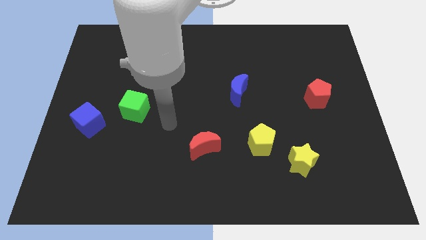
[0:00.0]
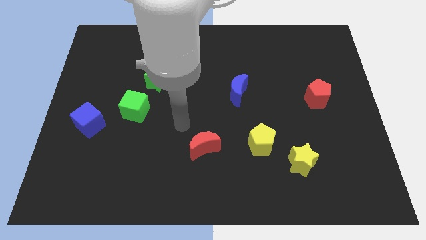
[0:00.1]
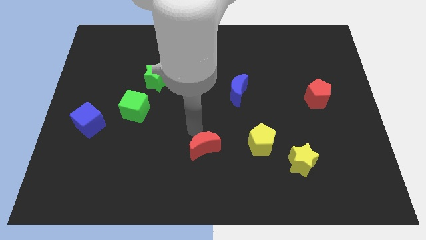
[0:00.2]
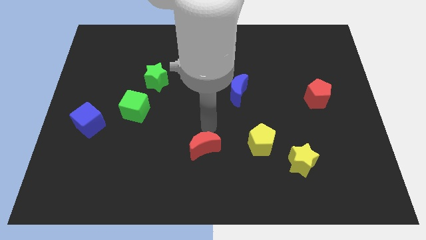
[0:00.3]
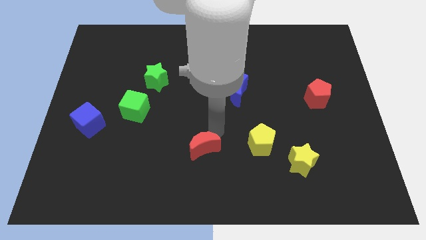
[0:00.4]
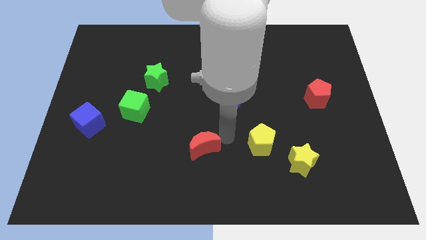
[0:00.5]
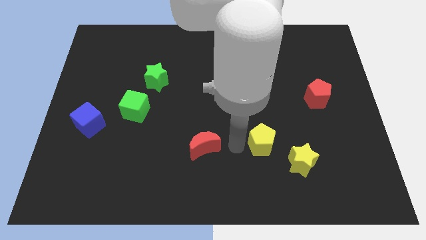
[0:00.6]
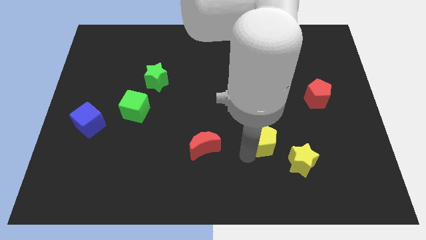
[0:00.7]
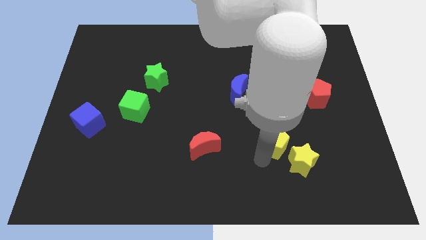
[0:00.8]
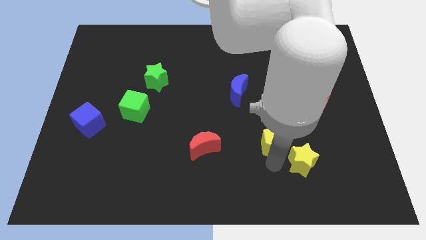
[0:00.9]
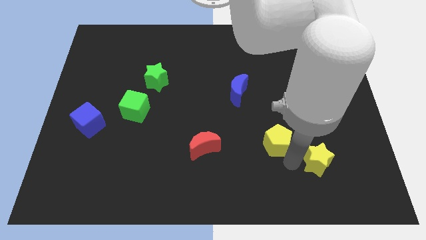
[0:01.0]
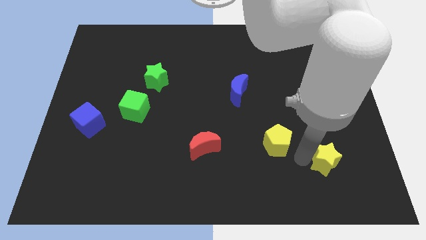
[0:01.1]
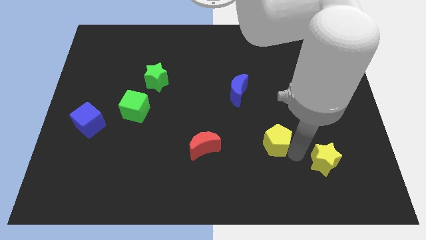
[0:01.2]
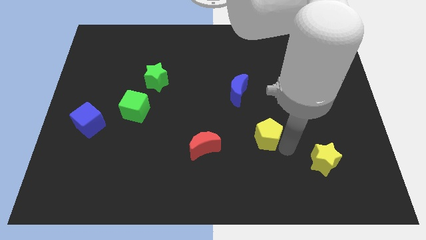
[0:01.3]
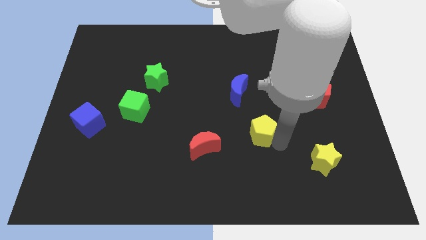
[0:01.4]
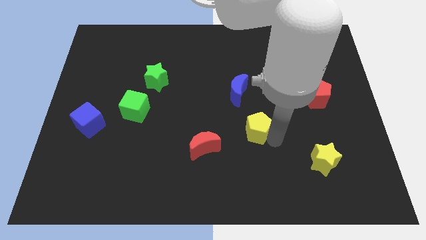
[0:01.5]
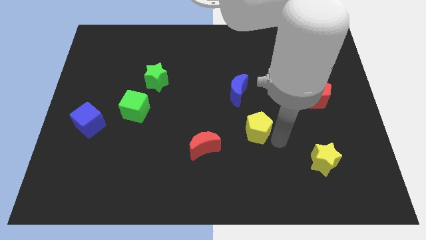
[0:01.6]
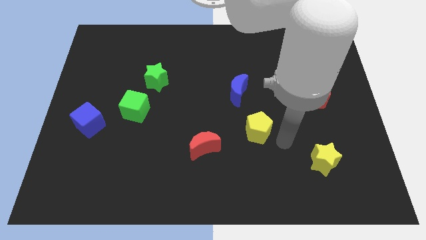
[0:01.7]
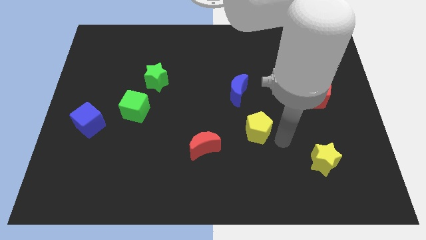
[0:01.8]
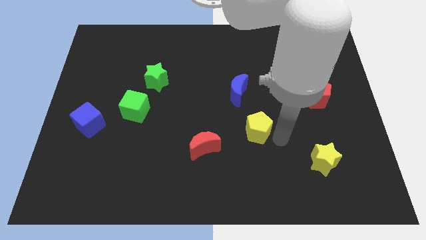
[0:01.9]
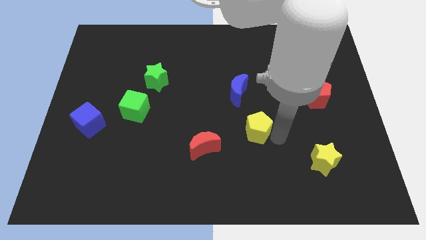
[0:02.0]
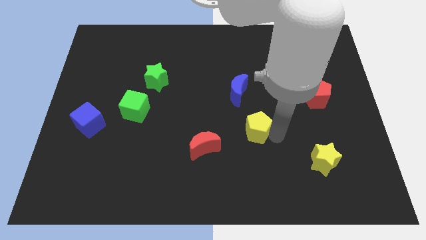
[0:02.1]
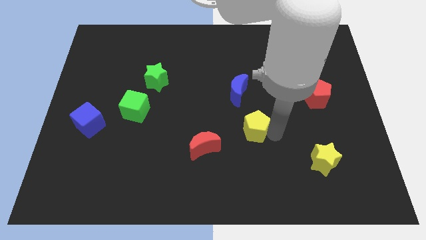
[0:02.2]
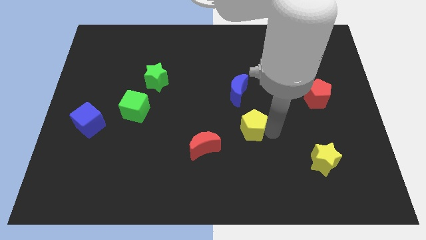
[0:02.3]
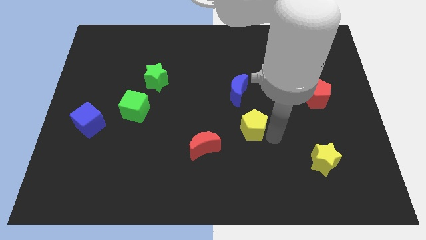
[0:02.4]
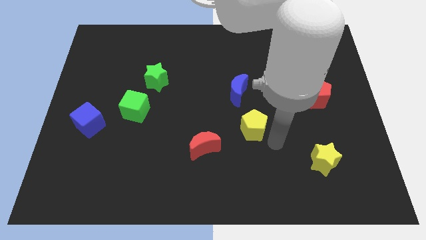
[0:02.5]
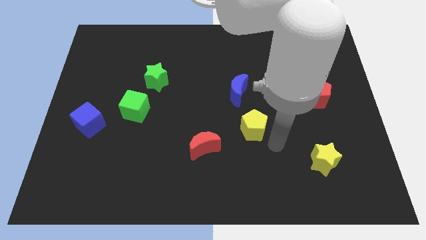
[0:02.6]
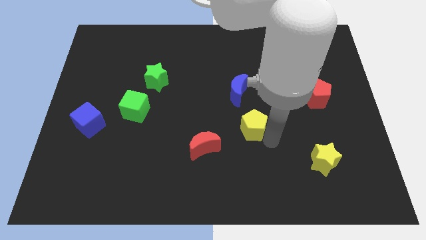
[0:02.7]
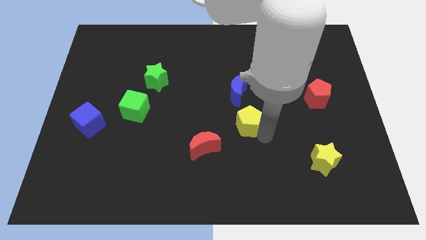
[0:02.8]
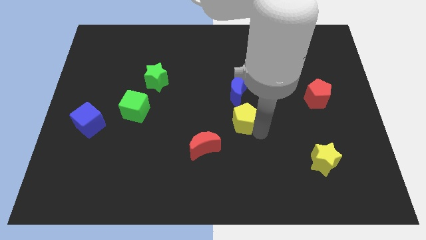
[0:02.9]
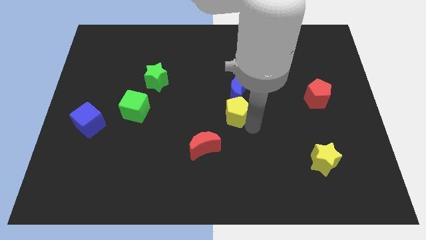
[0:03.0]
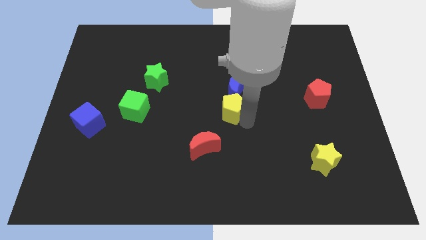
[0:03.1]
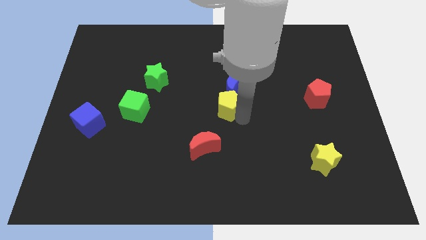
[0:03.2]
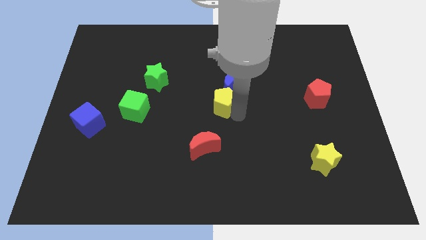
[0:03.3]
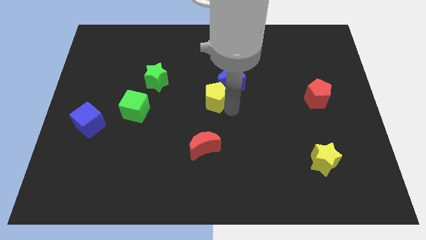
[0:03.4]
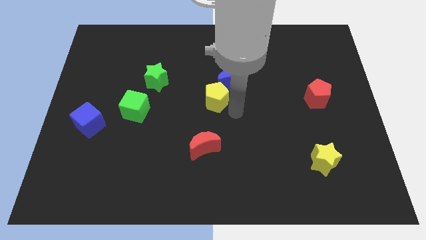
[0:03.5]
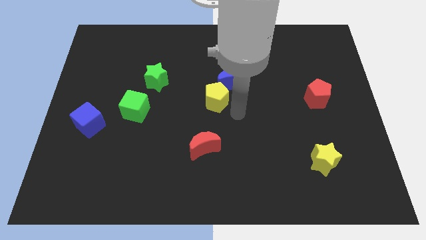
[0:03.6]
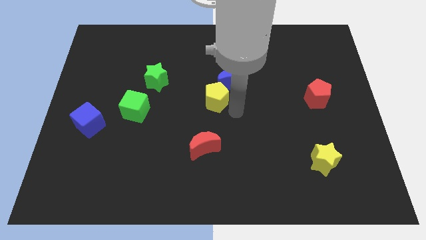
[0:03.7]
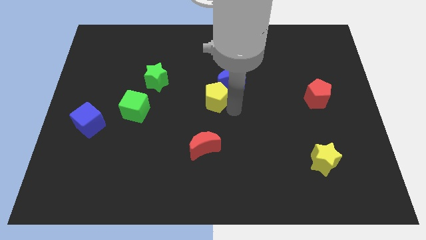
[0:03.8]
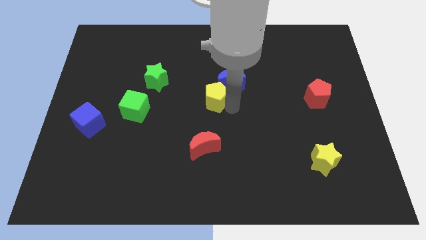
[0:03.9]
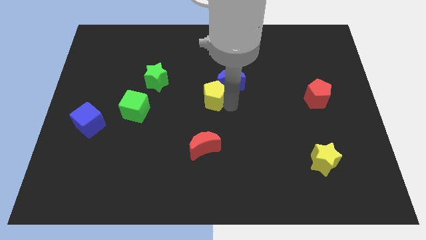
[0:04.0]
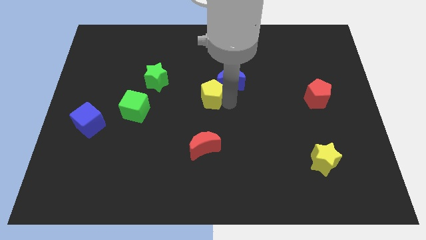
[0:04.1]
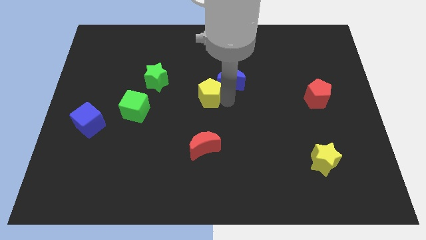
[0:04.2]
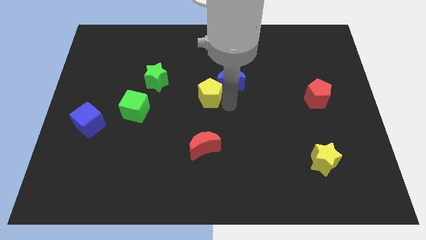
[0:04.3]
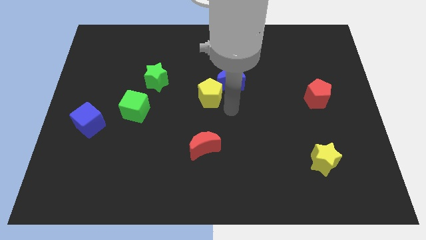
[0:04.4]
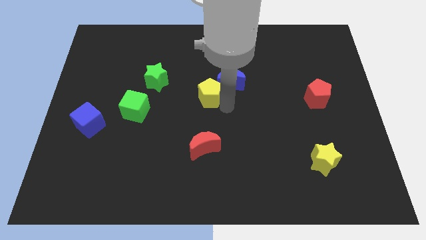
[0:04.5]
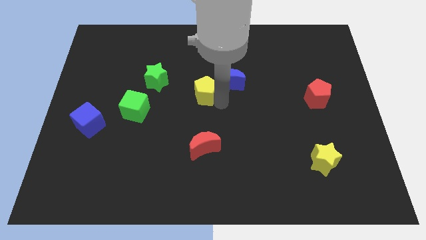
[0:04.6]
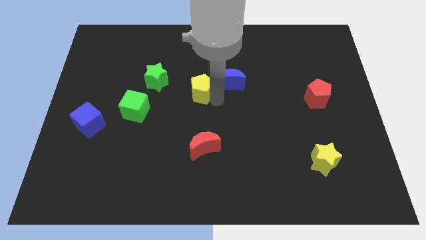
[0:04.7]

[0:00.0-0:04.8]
push the yellow pentagon up and to the left diagonally

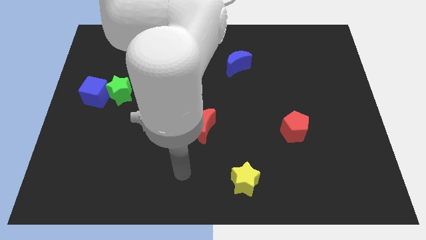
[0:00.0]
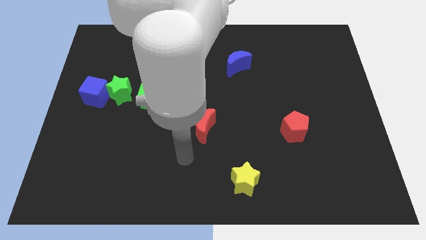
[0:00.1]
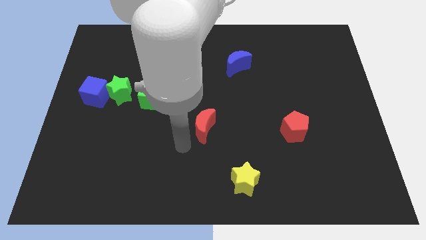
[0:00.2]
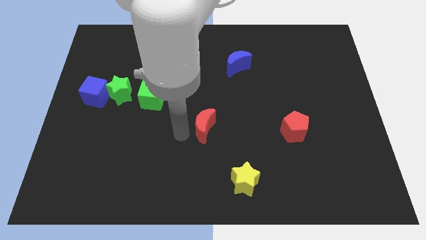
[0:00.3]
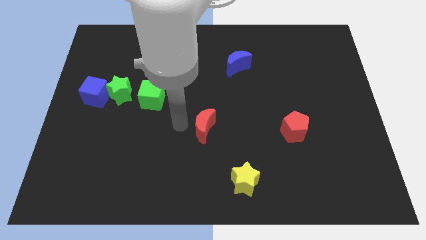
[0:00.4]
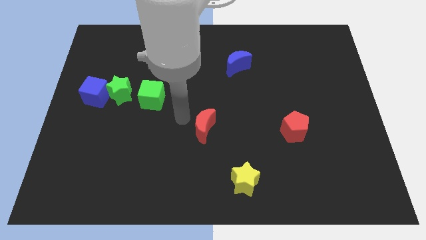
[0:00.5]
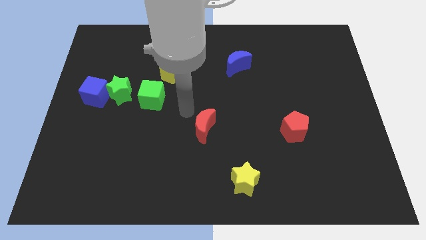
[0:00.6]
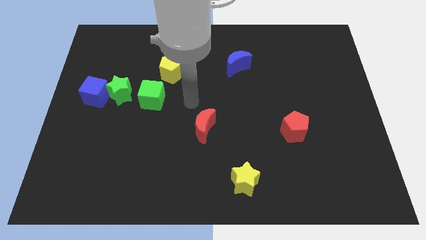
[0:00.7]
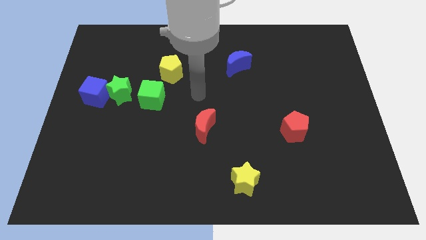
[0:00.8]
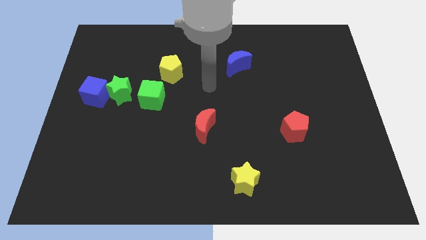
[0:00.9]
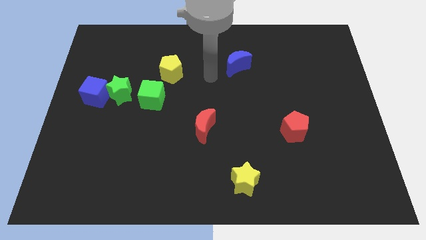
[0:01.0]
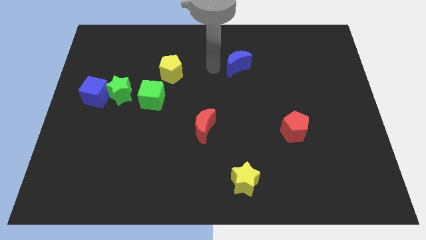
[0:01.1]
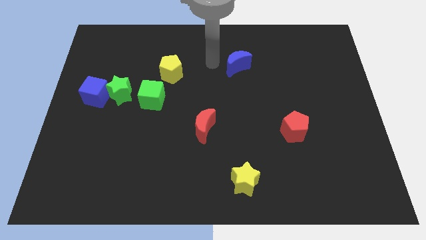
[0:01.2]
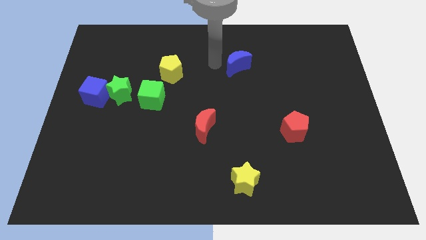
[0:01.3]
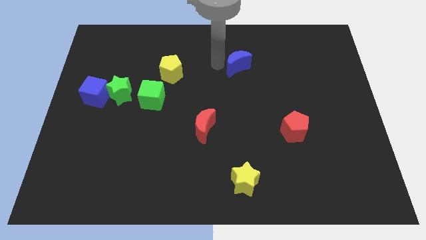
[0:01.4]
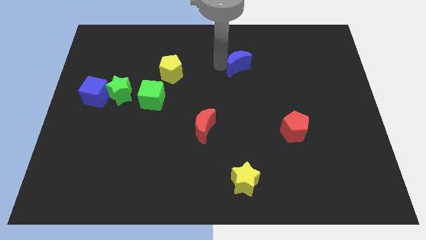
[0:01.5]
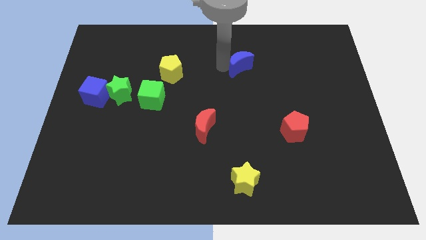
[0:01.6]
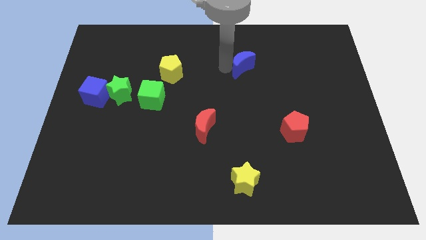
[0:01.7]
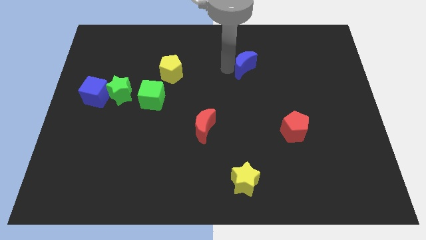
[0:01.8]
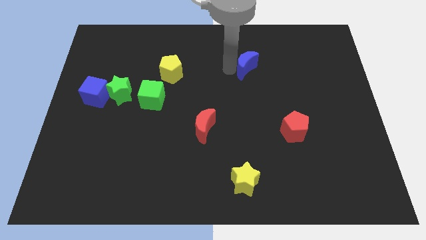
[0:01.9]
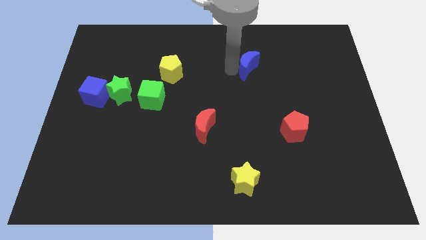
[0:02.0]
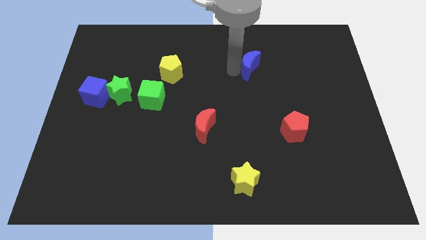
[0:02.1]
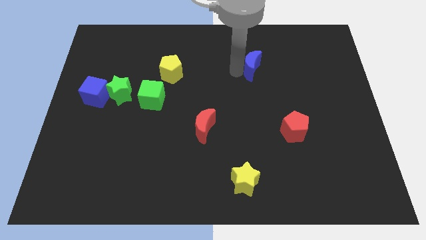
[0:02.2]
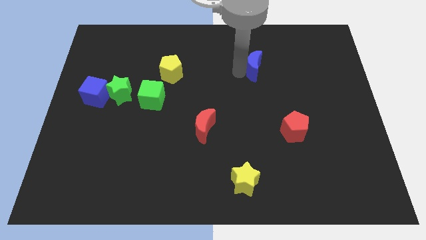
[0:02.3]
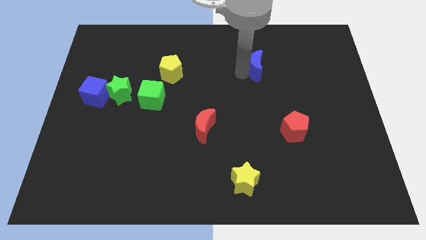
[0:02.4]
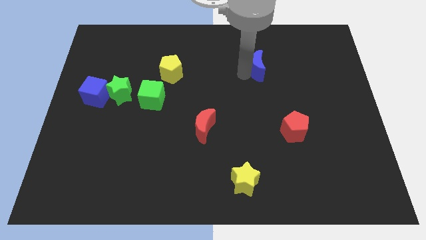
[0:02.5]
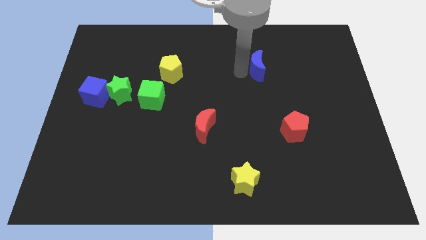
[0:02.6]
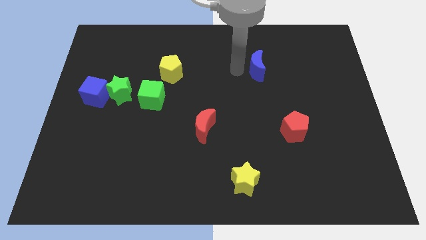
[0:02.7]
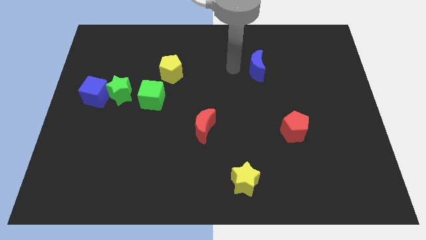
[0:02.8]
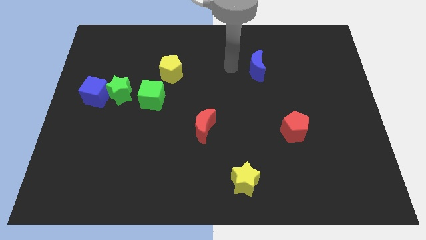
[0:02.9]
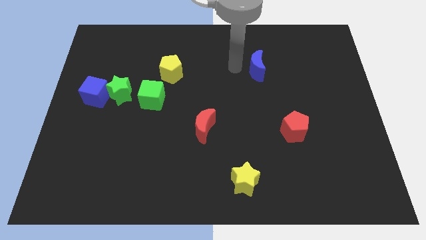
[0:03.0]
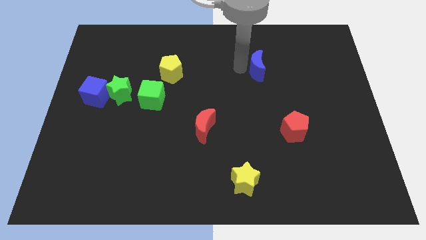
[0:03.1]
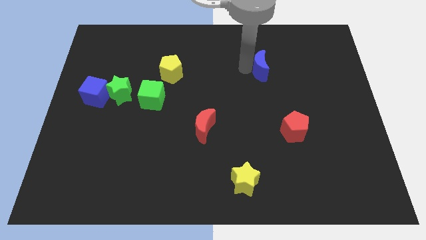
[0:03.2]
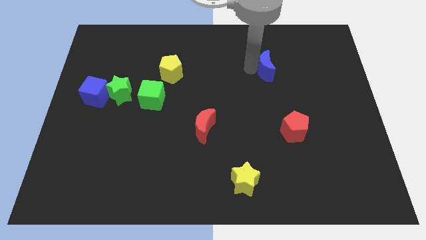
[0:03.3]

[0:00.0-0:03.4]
slightly slide the blue moon to the right
